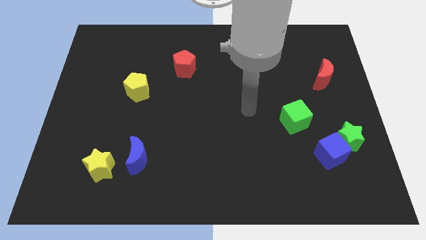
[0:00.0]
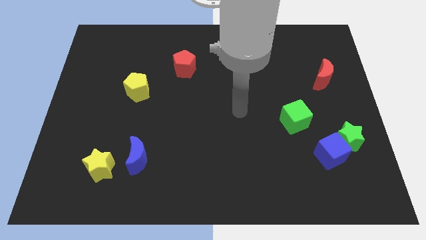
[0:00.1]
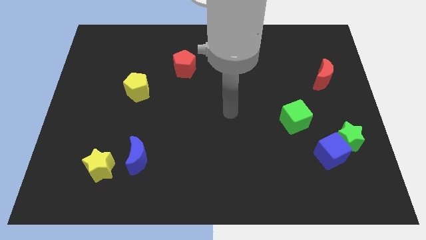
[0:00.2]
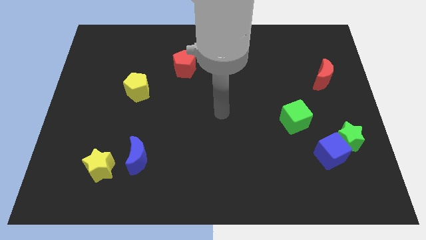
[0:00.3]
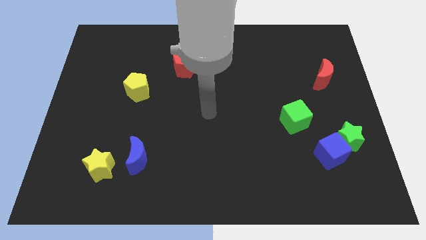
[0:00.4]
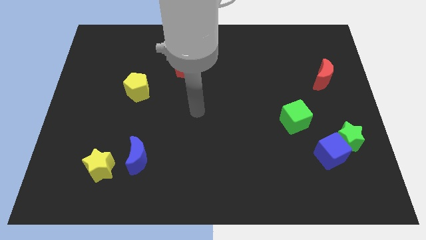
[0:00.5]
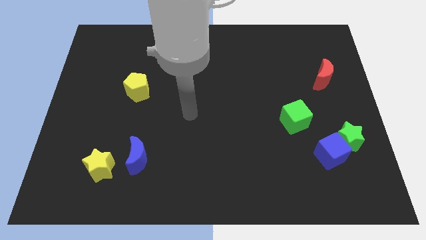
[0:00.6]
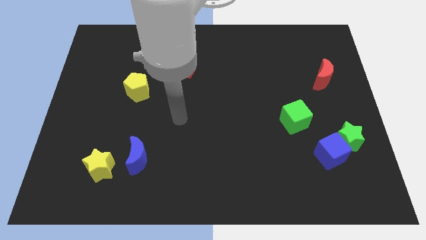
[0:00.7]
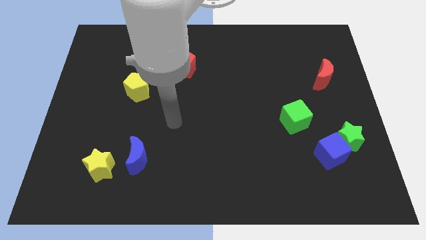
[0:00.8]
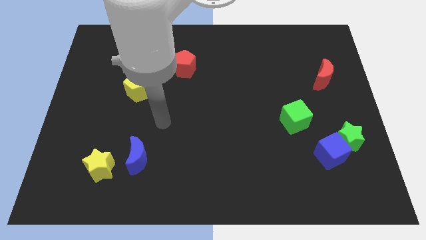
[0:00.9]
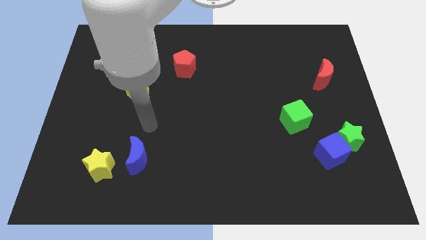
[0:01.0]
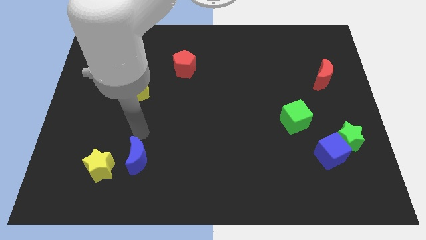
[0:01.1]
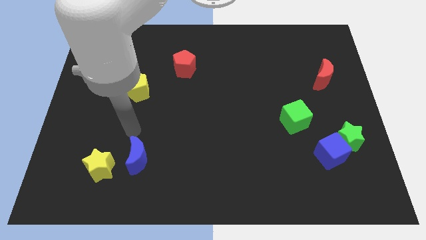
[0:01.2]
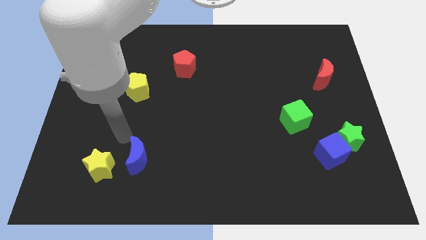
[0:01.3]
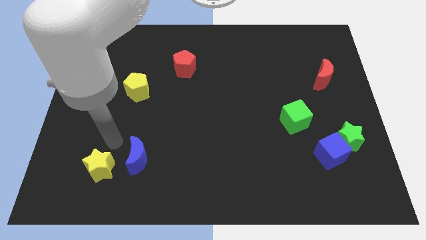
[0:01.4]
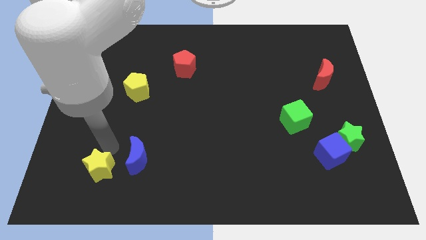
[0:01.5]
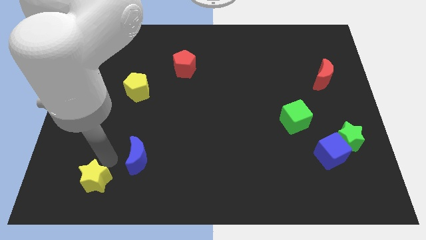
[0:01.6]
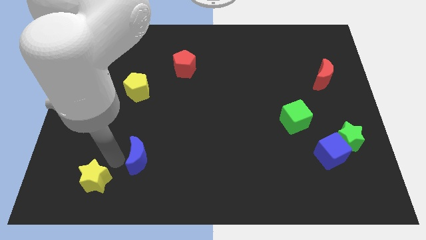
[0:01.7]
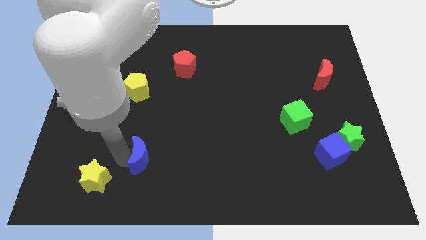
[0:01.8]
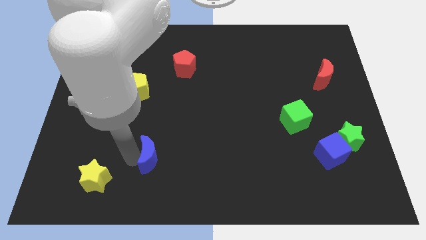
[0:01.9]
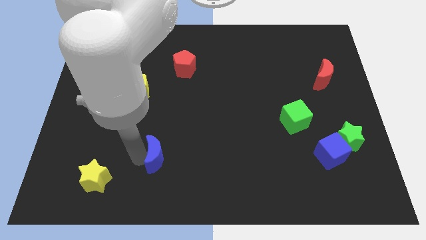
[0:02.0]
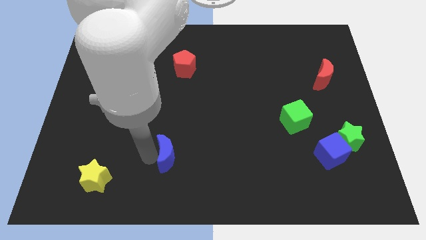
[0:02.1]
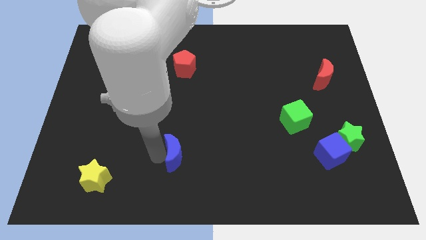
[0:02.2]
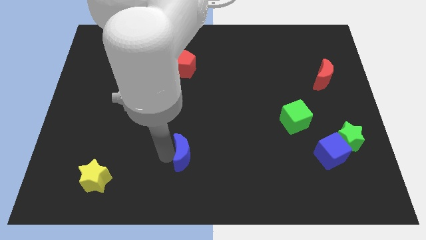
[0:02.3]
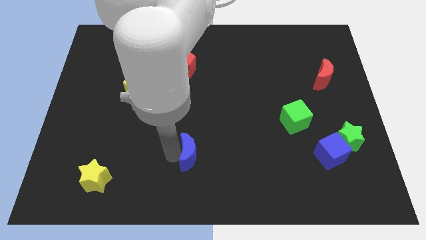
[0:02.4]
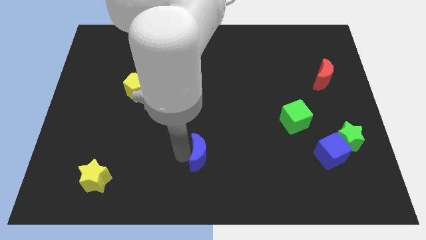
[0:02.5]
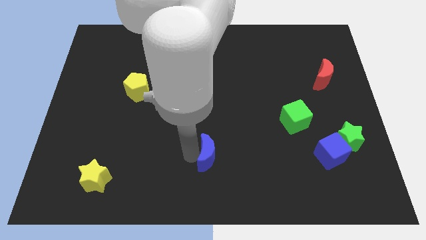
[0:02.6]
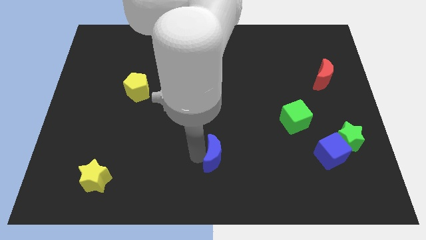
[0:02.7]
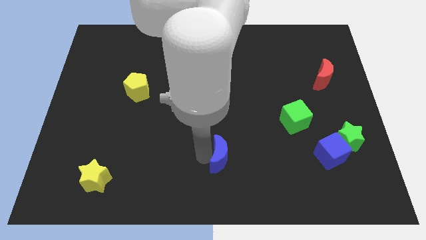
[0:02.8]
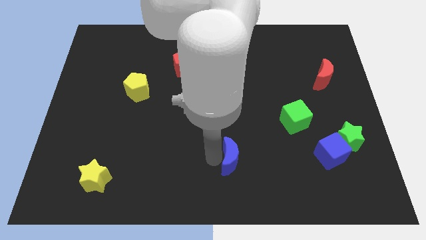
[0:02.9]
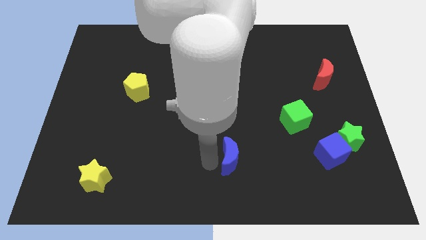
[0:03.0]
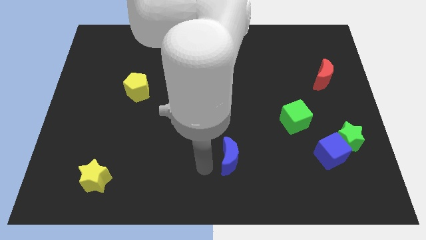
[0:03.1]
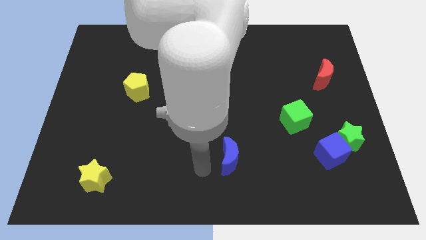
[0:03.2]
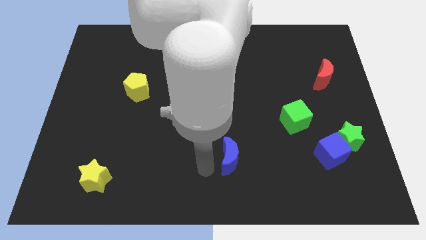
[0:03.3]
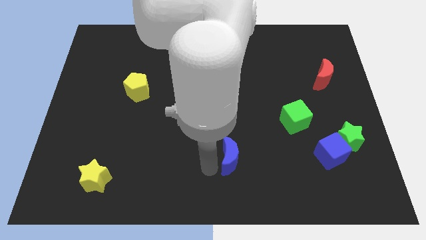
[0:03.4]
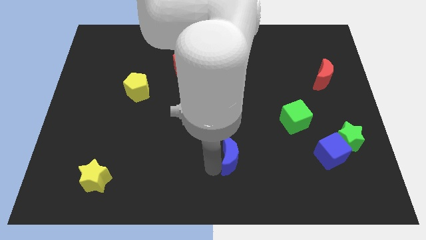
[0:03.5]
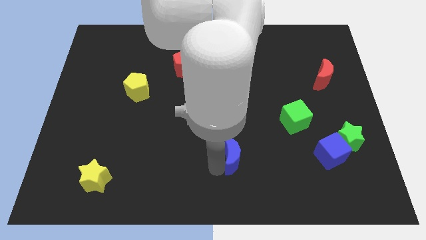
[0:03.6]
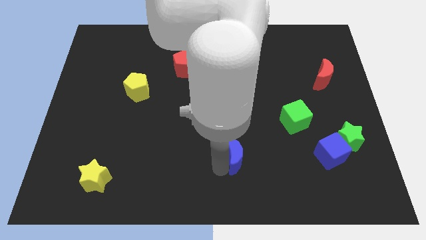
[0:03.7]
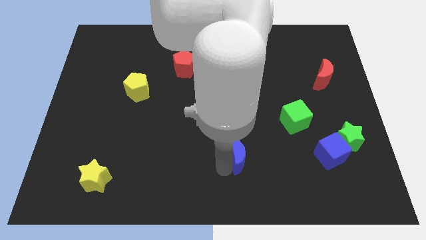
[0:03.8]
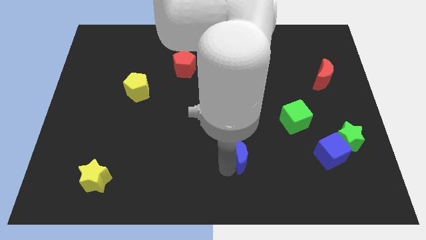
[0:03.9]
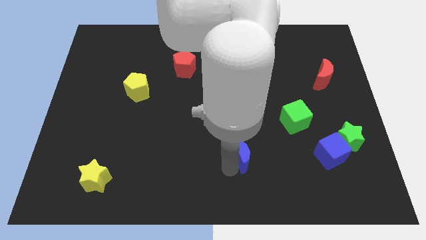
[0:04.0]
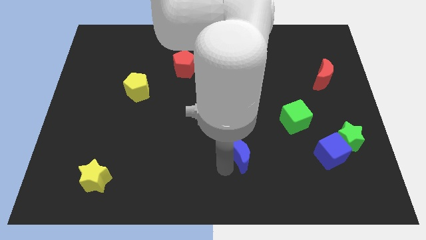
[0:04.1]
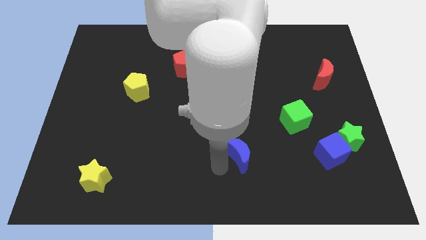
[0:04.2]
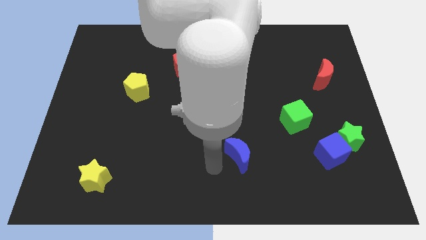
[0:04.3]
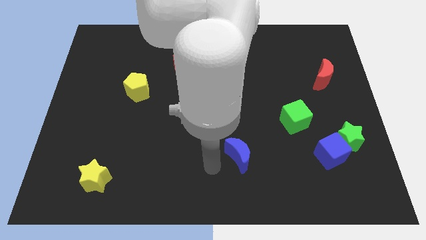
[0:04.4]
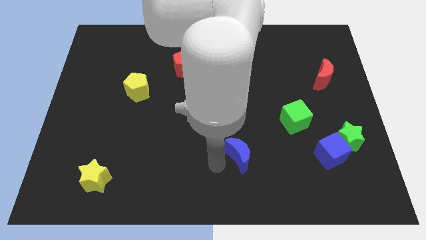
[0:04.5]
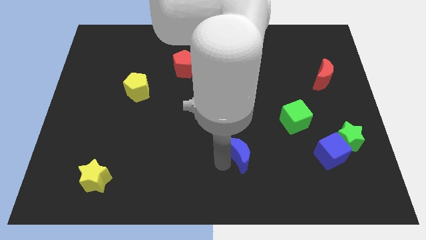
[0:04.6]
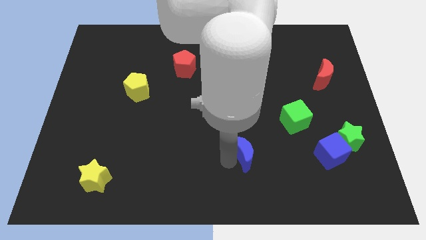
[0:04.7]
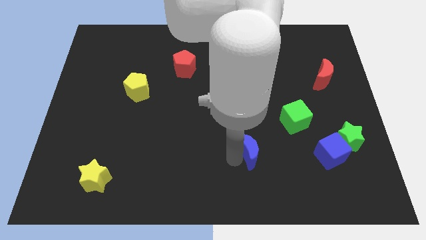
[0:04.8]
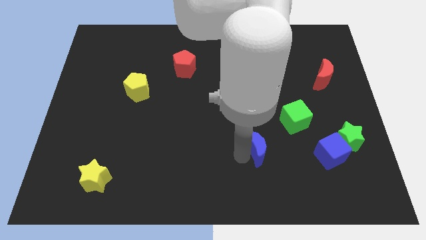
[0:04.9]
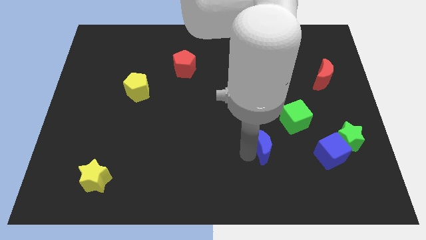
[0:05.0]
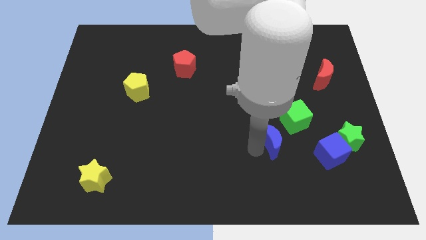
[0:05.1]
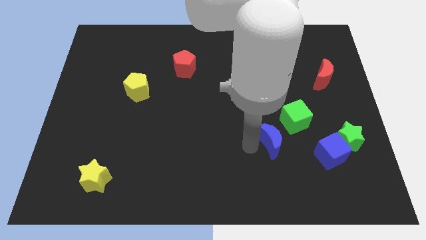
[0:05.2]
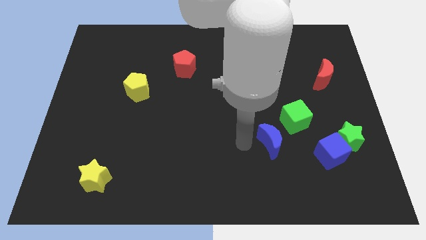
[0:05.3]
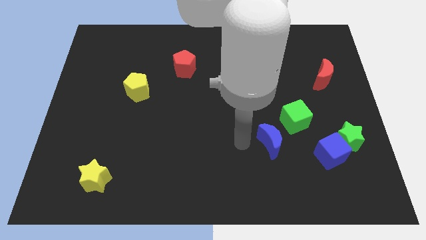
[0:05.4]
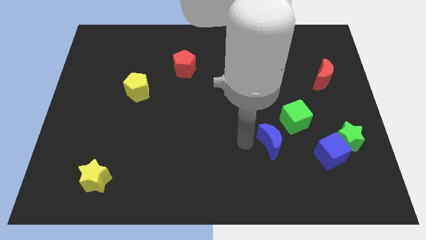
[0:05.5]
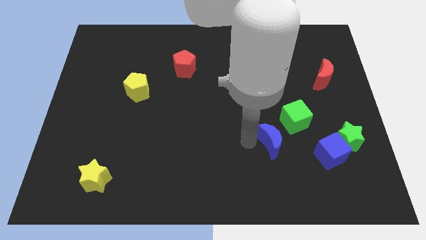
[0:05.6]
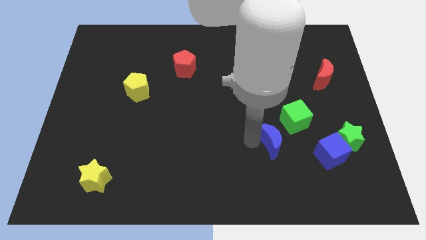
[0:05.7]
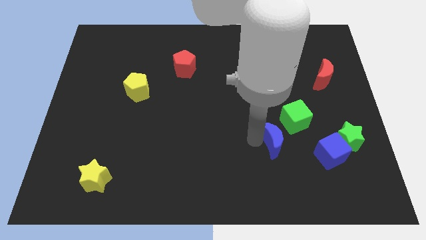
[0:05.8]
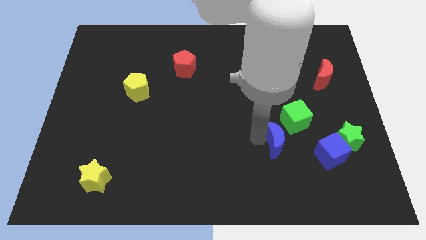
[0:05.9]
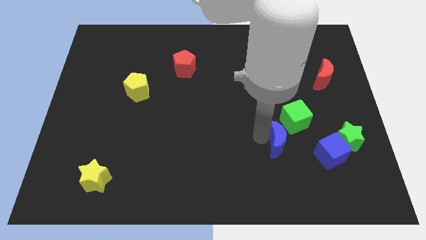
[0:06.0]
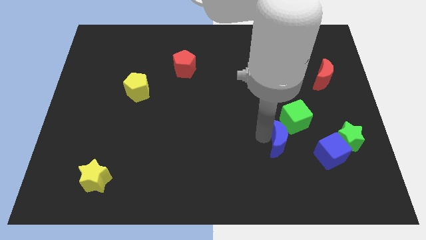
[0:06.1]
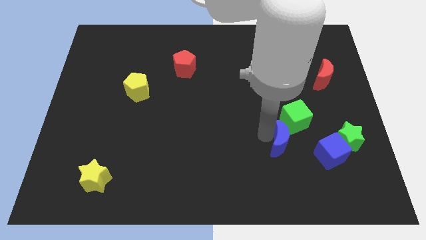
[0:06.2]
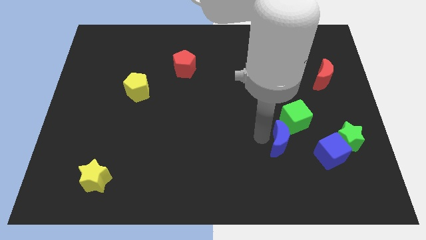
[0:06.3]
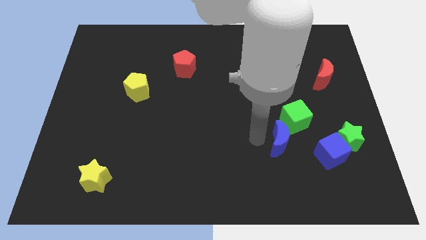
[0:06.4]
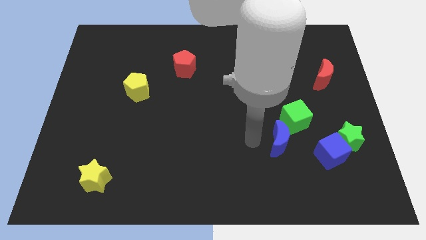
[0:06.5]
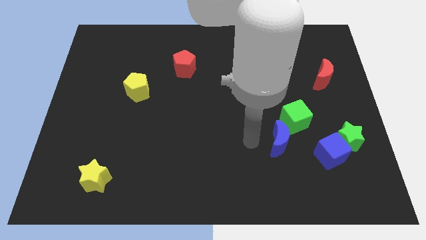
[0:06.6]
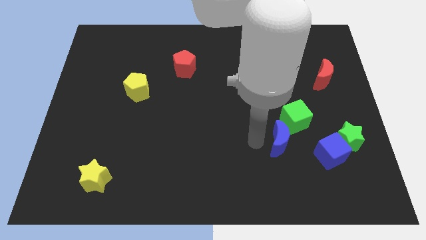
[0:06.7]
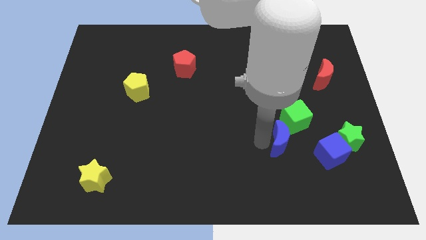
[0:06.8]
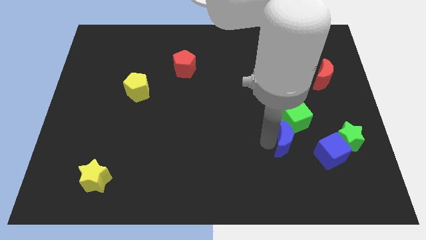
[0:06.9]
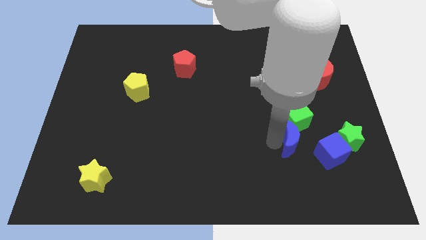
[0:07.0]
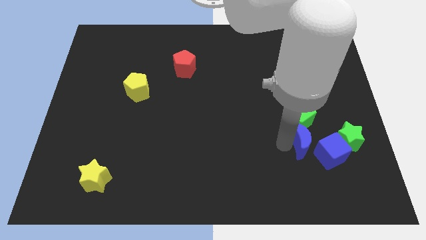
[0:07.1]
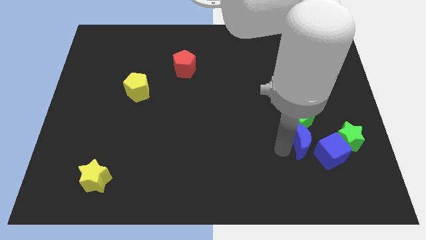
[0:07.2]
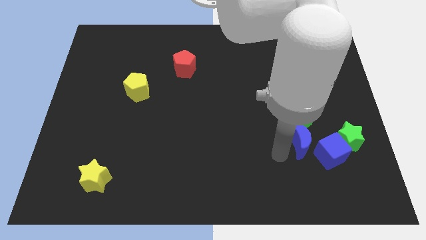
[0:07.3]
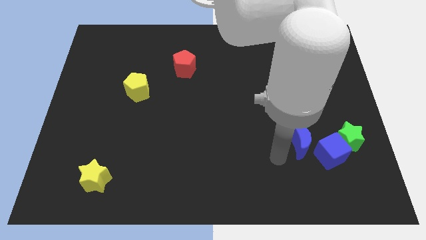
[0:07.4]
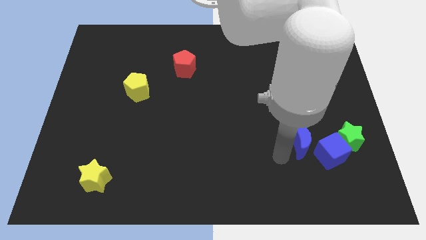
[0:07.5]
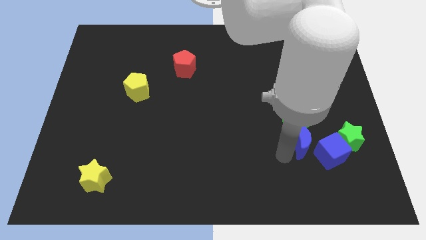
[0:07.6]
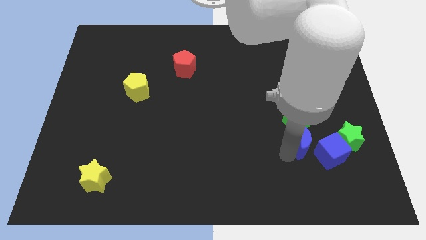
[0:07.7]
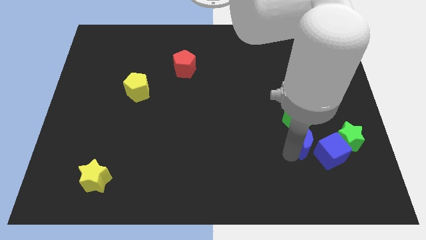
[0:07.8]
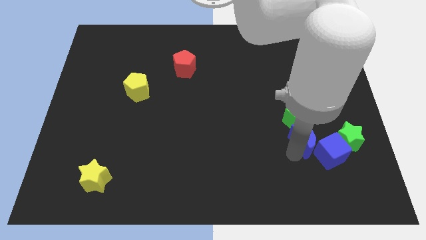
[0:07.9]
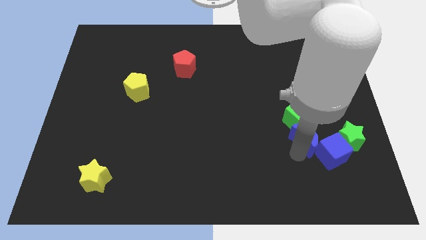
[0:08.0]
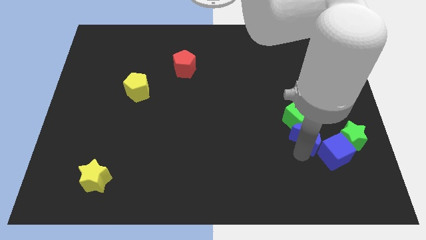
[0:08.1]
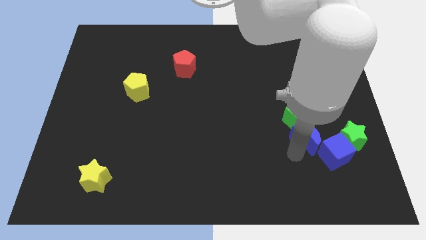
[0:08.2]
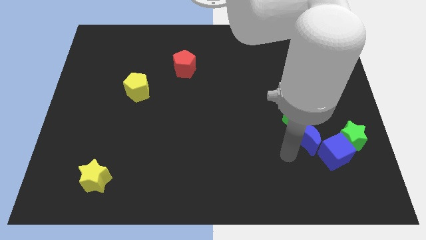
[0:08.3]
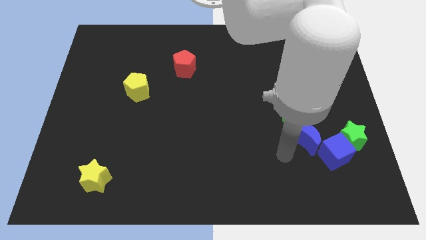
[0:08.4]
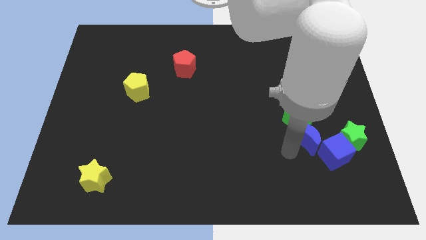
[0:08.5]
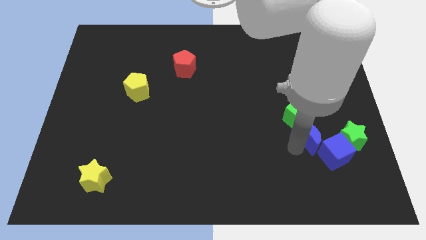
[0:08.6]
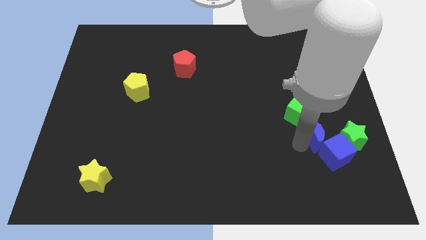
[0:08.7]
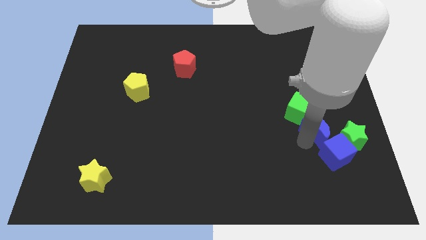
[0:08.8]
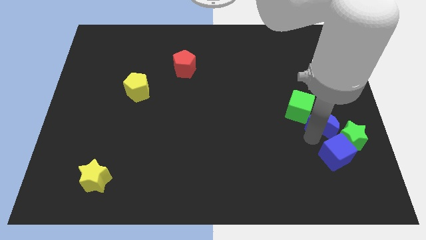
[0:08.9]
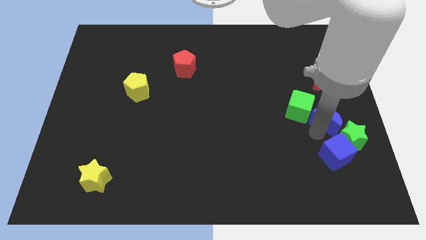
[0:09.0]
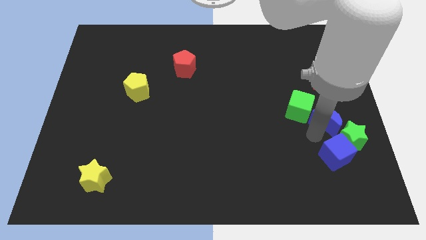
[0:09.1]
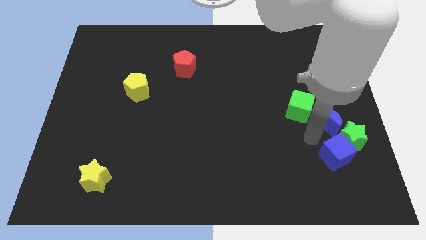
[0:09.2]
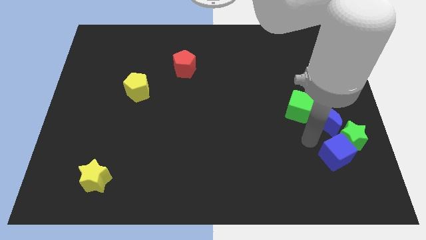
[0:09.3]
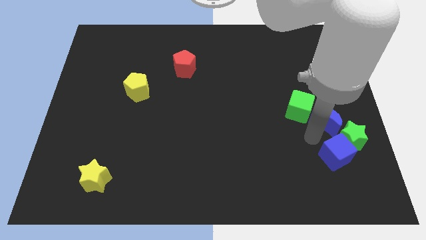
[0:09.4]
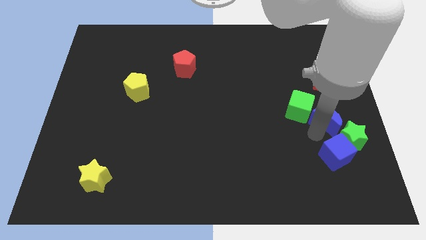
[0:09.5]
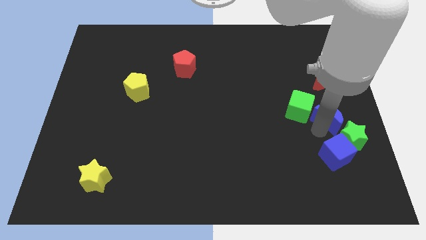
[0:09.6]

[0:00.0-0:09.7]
move the blue moon to the center right
